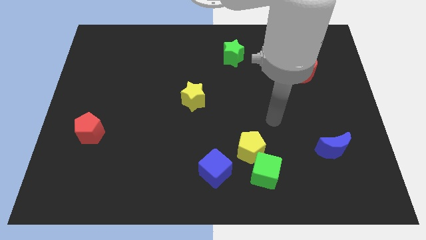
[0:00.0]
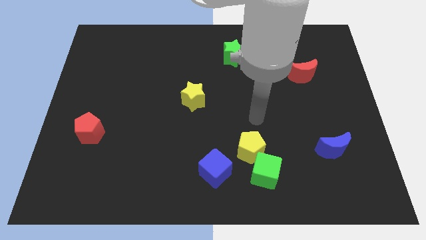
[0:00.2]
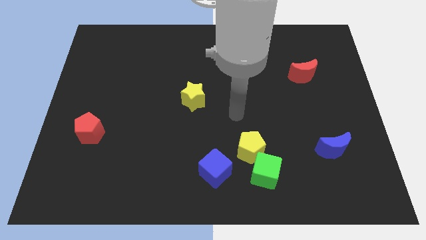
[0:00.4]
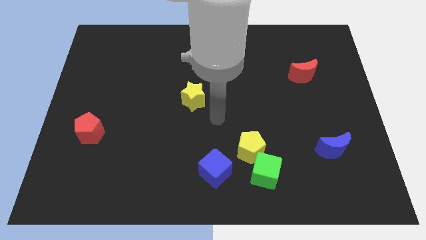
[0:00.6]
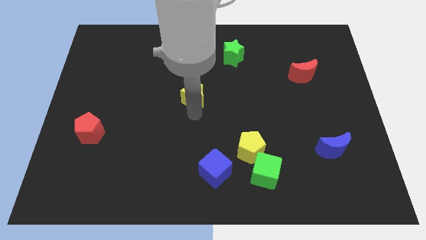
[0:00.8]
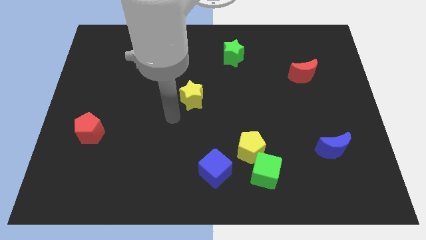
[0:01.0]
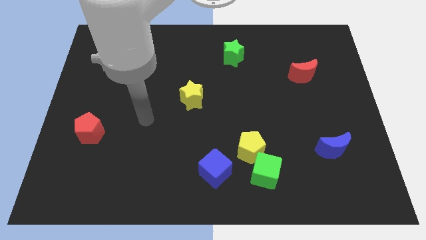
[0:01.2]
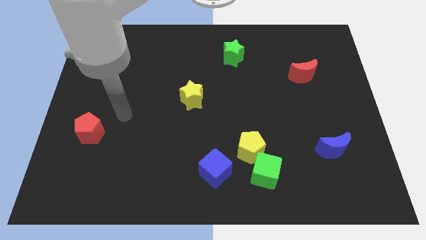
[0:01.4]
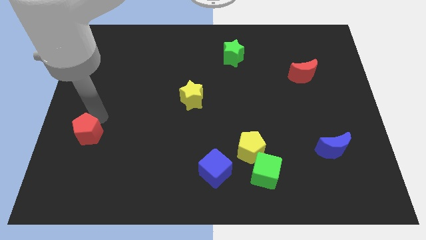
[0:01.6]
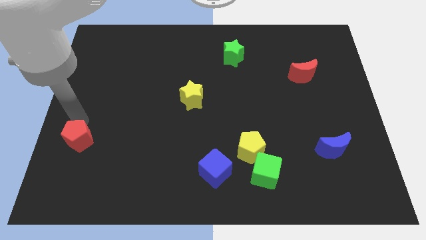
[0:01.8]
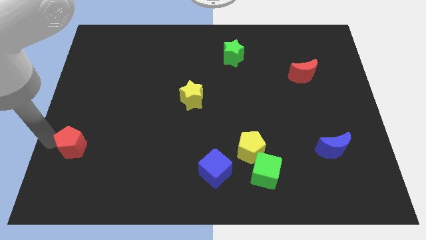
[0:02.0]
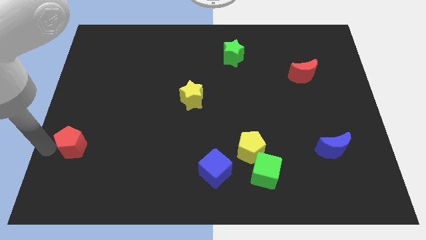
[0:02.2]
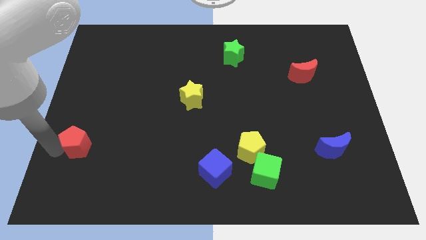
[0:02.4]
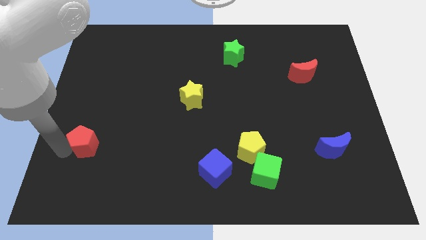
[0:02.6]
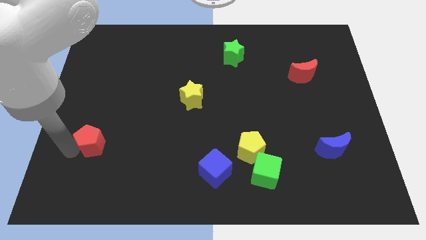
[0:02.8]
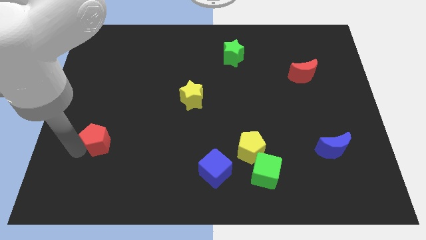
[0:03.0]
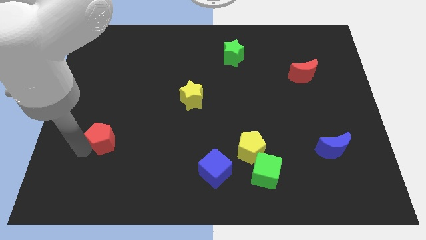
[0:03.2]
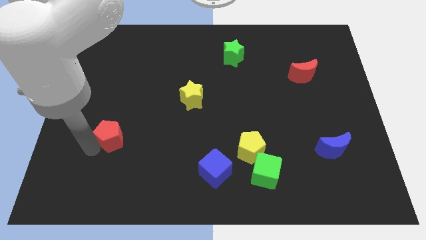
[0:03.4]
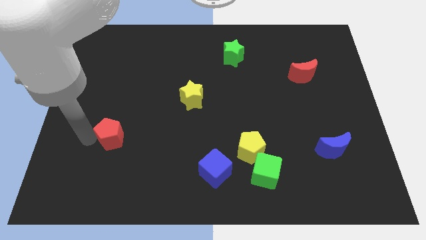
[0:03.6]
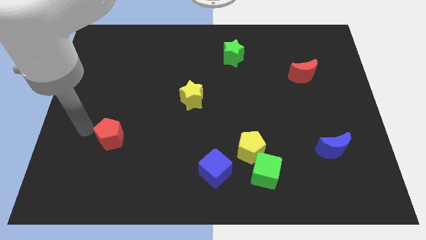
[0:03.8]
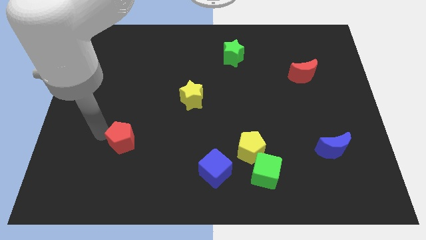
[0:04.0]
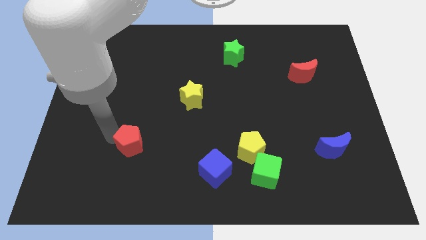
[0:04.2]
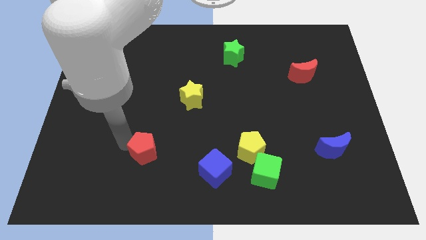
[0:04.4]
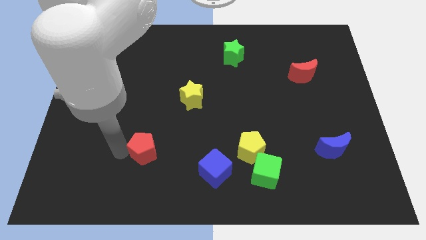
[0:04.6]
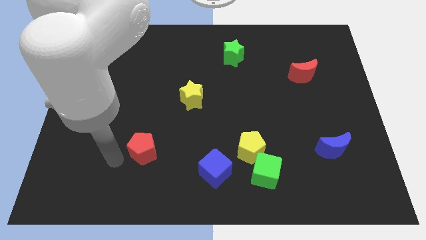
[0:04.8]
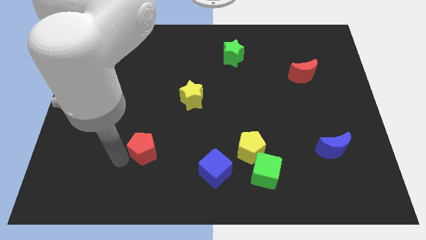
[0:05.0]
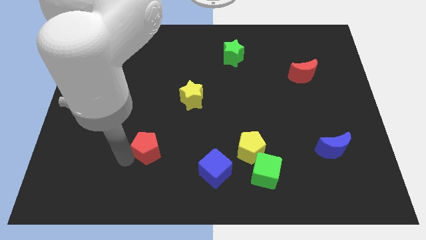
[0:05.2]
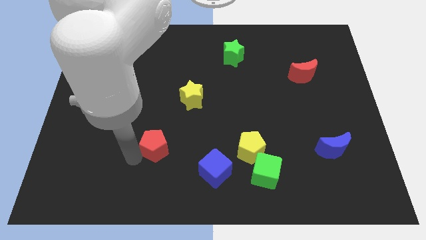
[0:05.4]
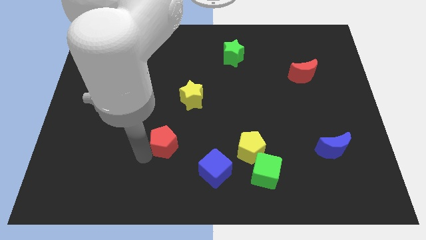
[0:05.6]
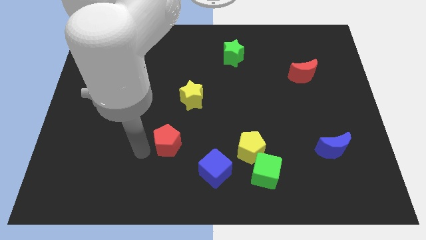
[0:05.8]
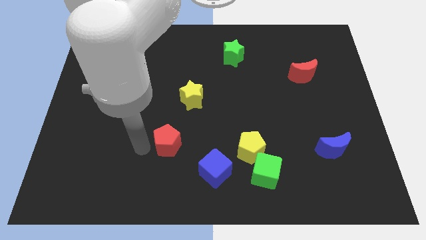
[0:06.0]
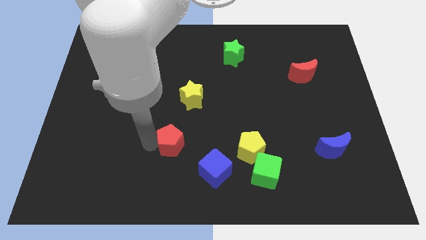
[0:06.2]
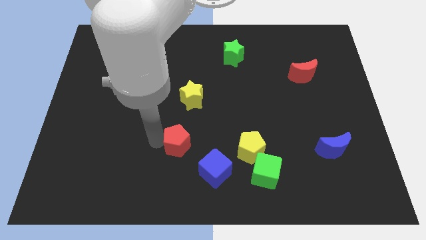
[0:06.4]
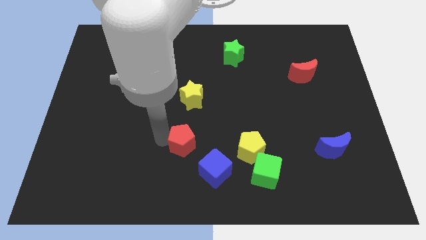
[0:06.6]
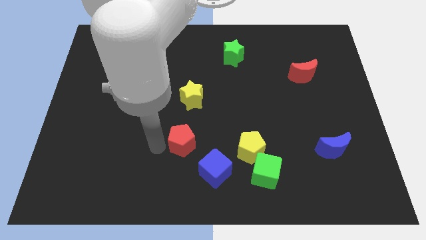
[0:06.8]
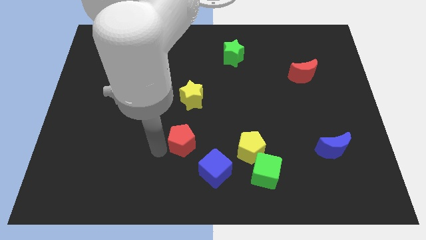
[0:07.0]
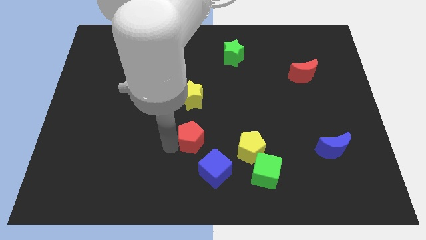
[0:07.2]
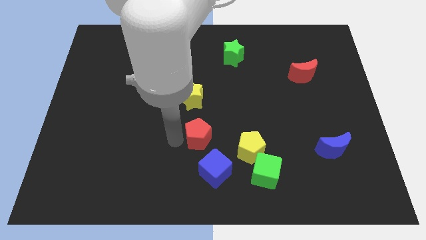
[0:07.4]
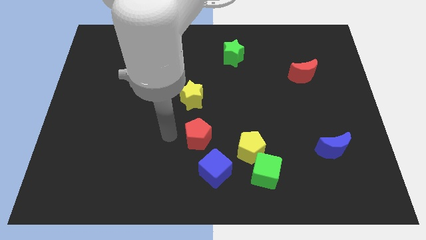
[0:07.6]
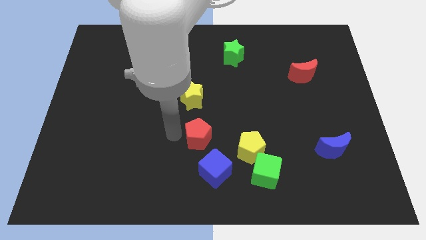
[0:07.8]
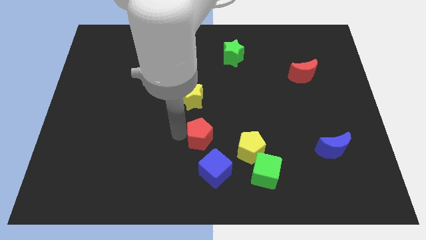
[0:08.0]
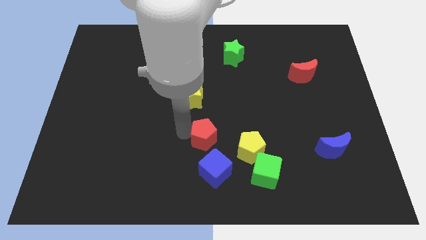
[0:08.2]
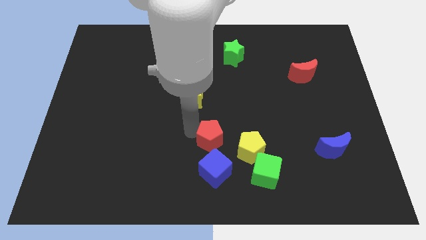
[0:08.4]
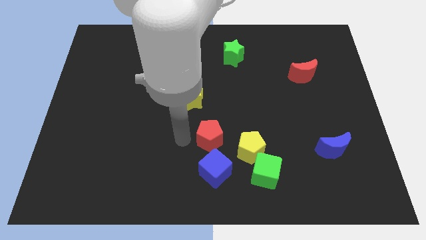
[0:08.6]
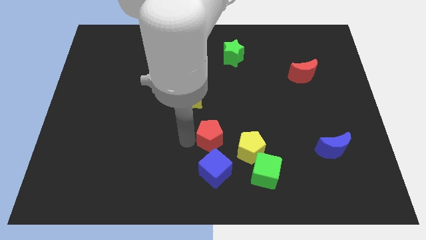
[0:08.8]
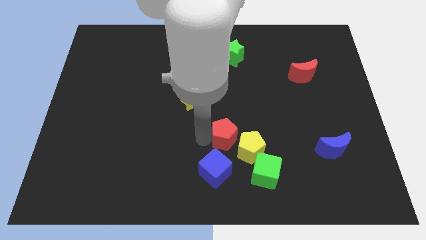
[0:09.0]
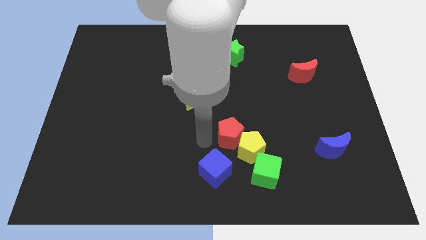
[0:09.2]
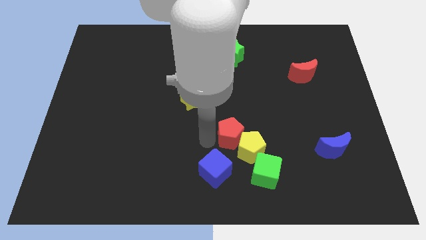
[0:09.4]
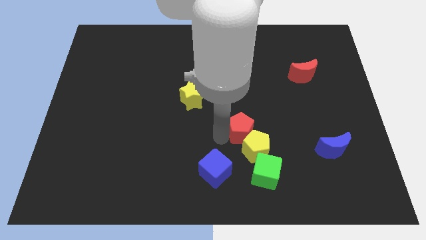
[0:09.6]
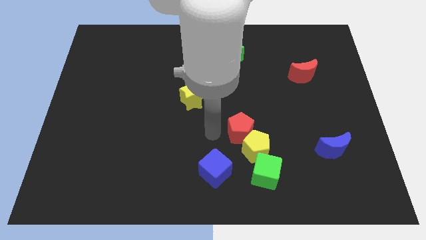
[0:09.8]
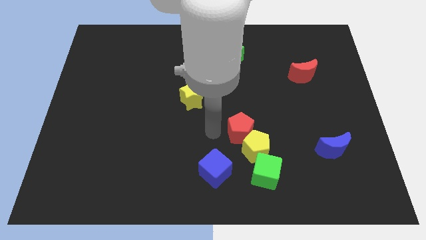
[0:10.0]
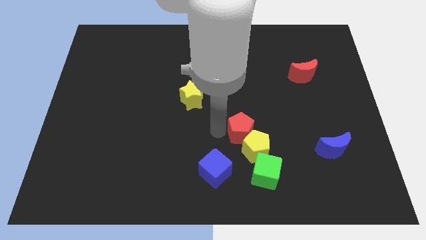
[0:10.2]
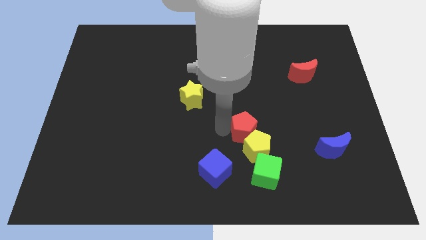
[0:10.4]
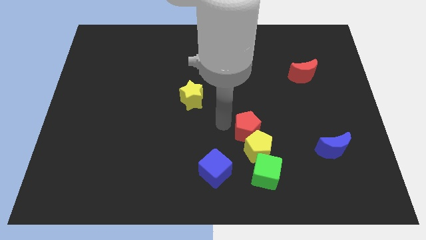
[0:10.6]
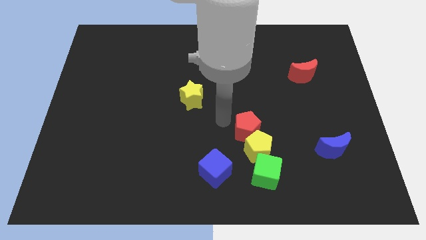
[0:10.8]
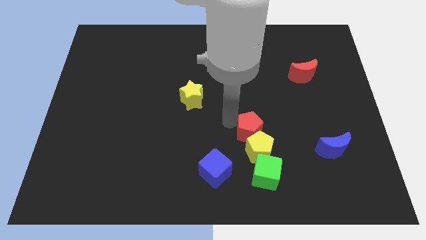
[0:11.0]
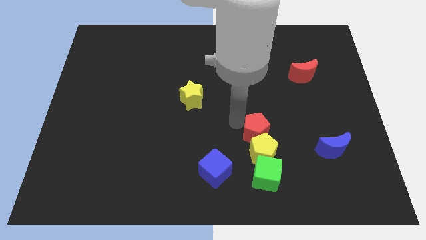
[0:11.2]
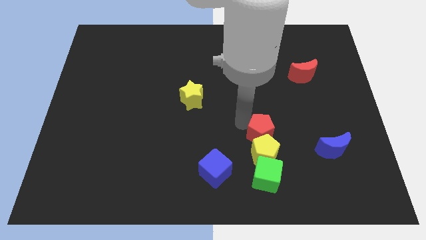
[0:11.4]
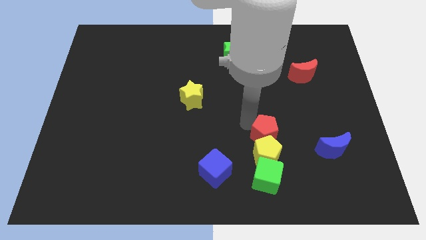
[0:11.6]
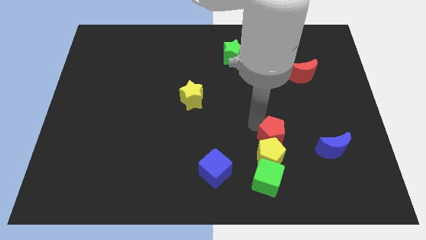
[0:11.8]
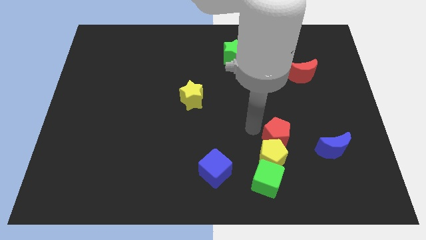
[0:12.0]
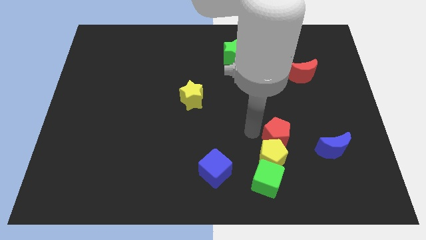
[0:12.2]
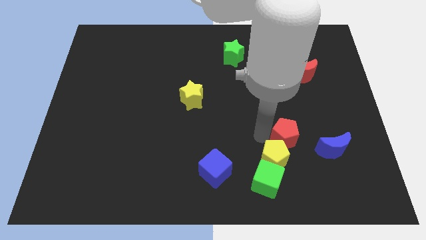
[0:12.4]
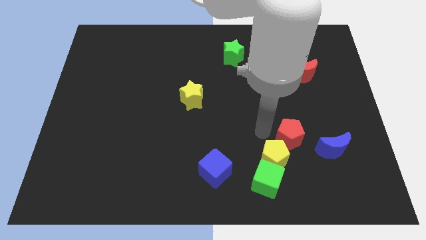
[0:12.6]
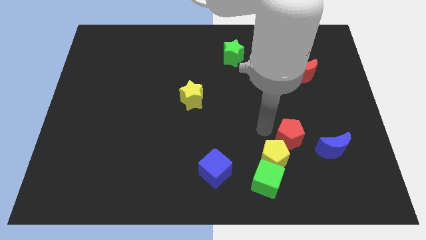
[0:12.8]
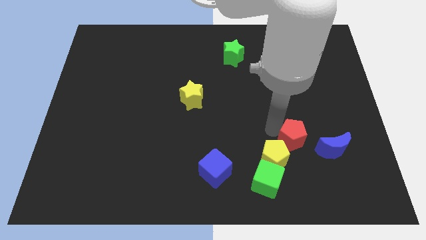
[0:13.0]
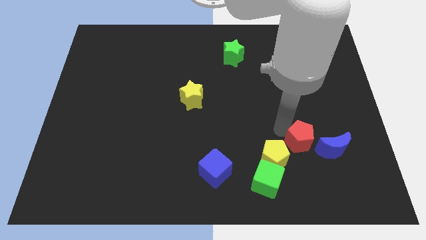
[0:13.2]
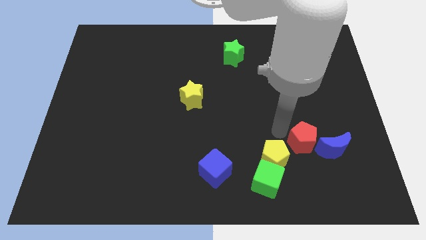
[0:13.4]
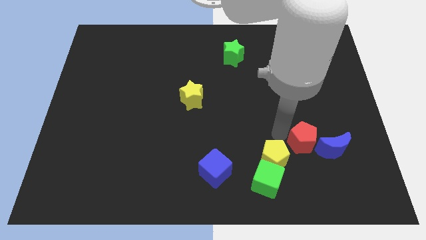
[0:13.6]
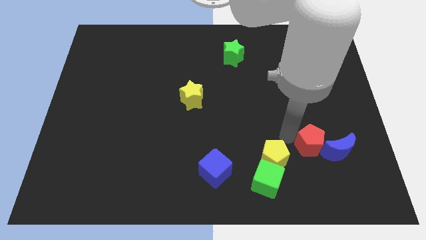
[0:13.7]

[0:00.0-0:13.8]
move the red pentagon next to the blue moon
